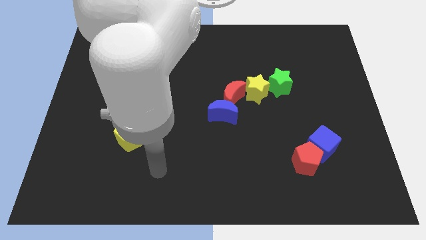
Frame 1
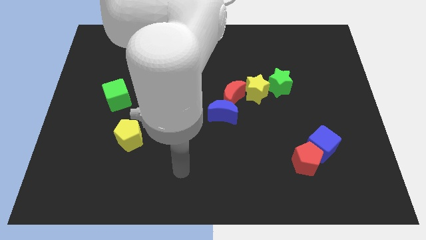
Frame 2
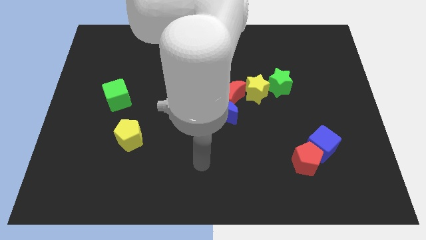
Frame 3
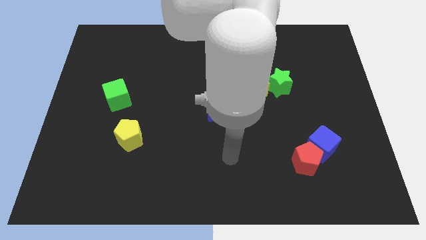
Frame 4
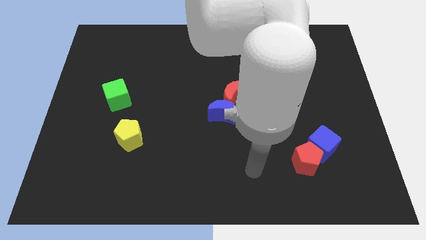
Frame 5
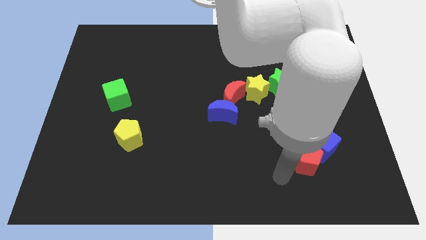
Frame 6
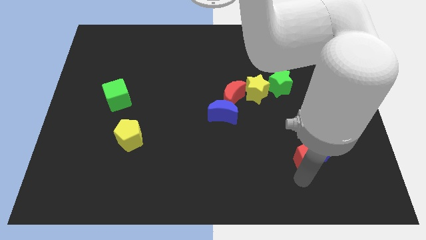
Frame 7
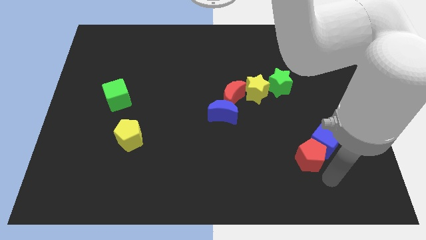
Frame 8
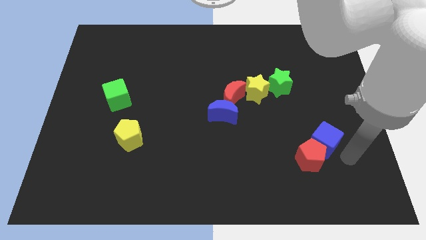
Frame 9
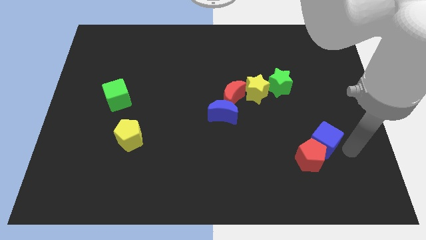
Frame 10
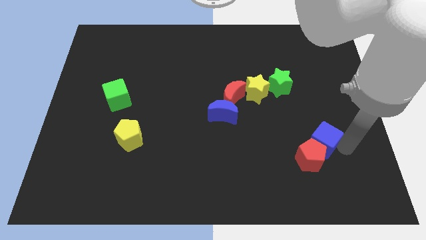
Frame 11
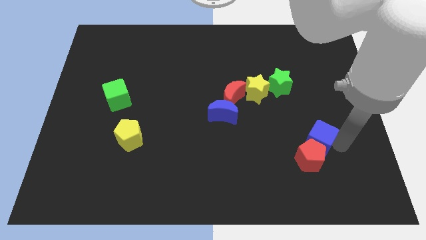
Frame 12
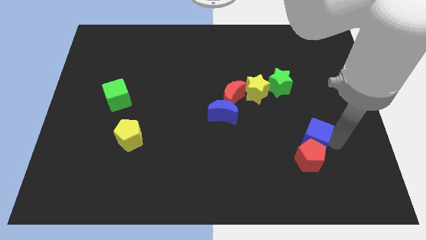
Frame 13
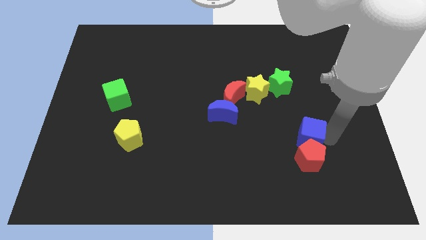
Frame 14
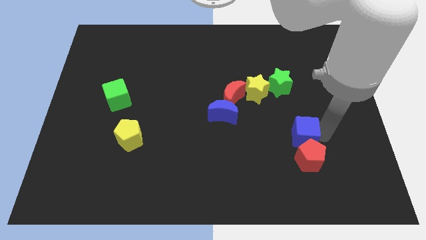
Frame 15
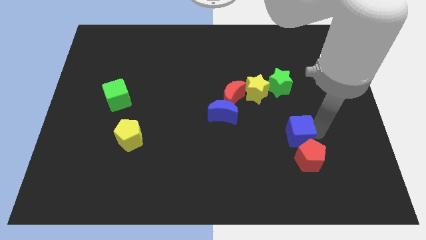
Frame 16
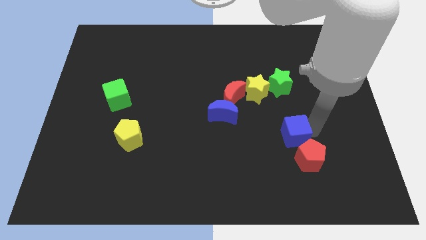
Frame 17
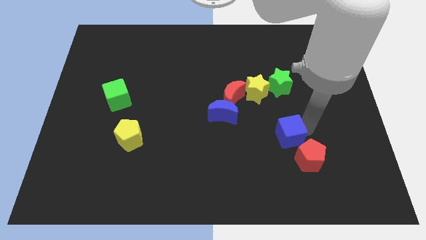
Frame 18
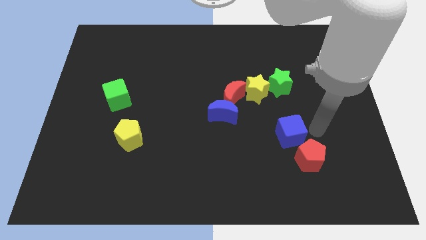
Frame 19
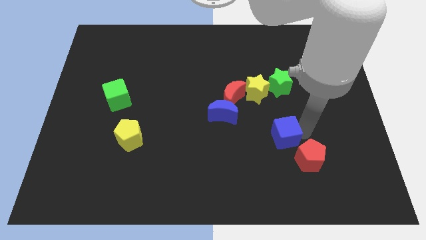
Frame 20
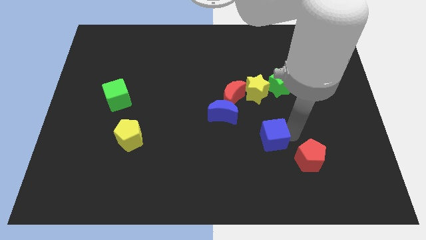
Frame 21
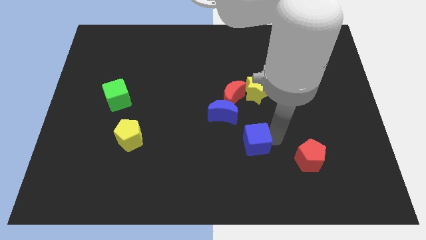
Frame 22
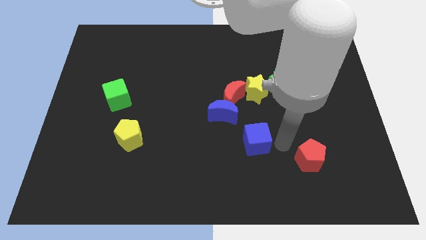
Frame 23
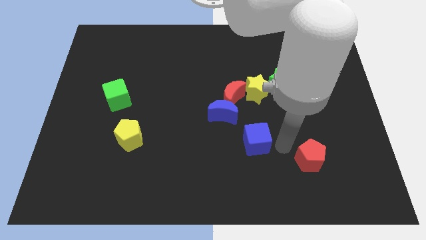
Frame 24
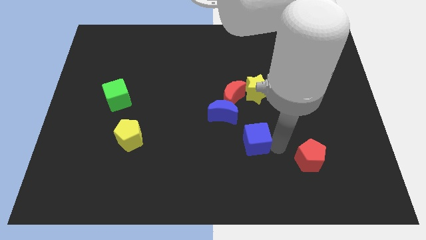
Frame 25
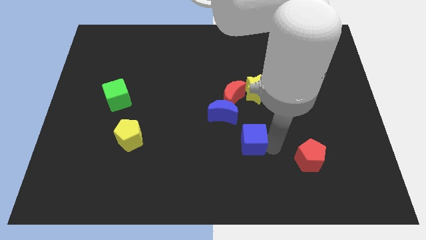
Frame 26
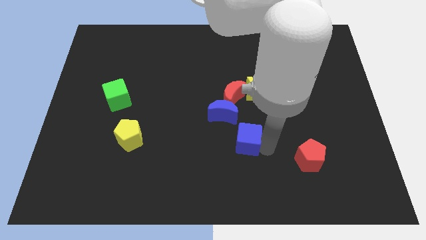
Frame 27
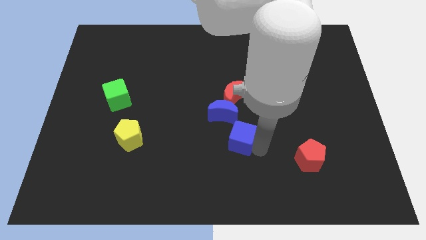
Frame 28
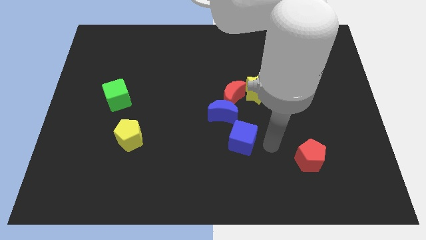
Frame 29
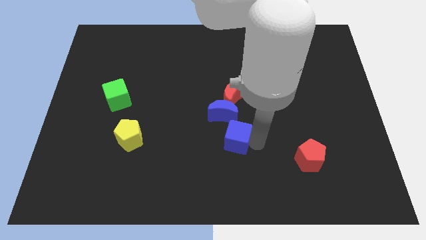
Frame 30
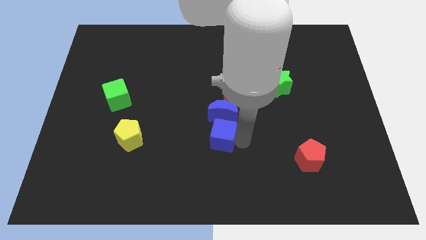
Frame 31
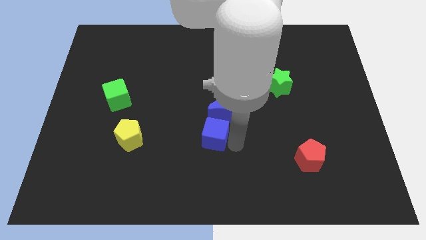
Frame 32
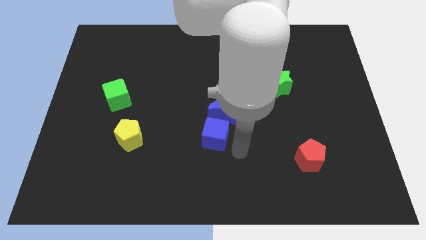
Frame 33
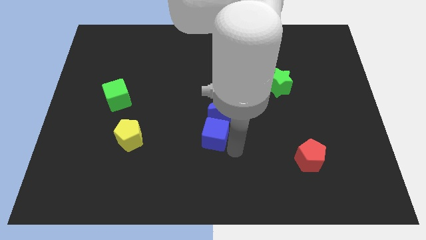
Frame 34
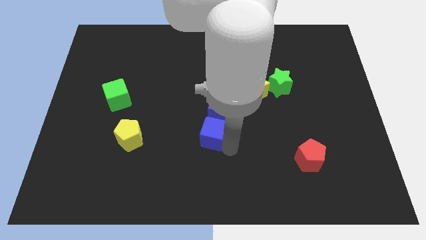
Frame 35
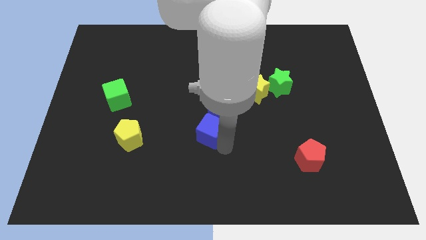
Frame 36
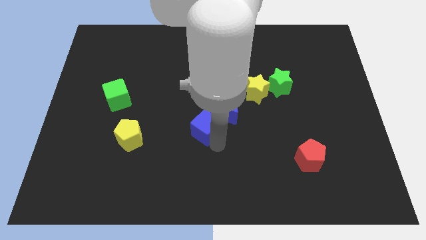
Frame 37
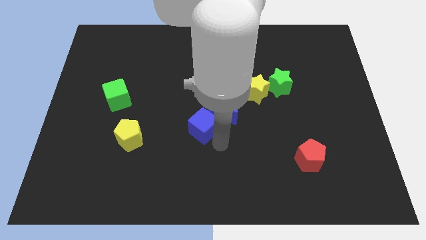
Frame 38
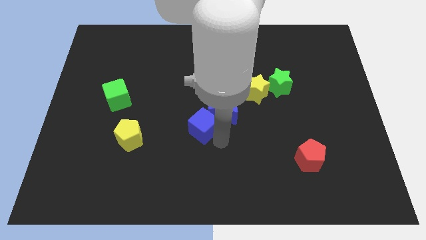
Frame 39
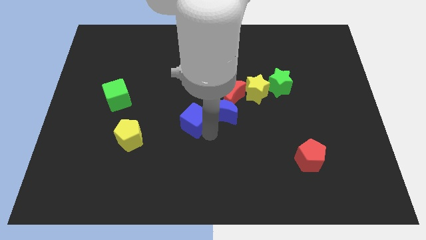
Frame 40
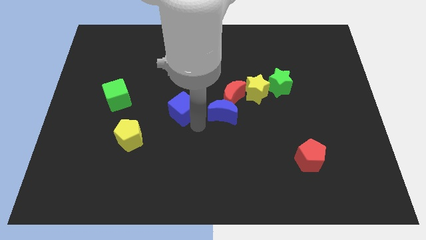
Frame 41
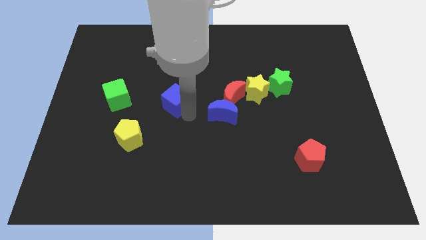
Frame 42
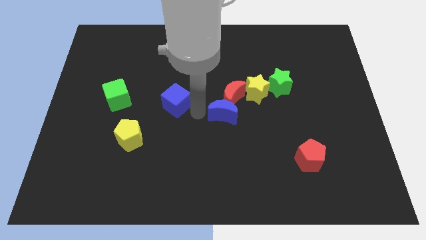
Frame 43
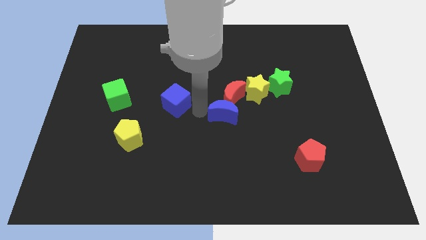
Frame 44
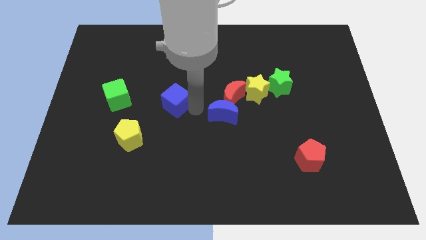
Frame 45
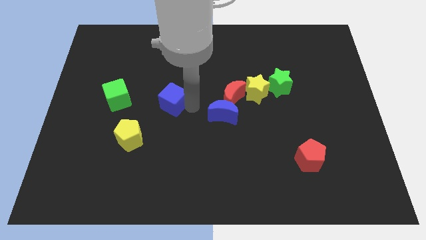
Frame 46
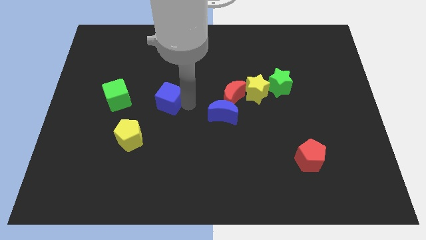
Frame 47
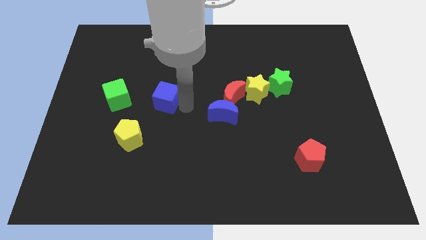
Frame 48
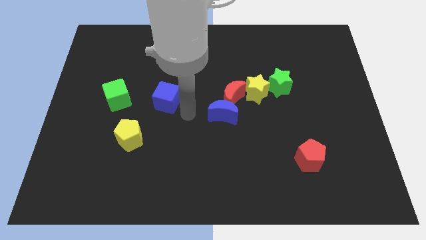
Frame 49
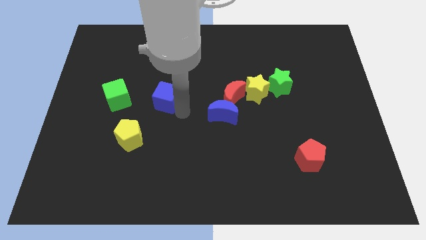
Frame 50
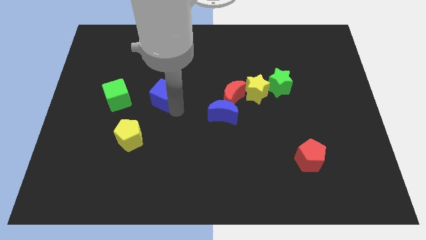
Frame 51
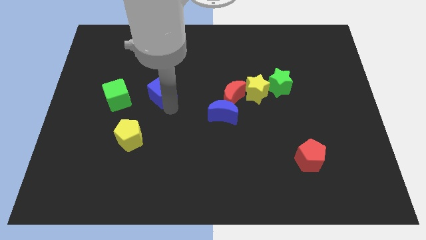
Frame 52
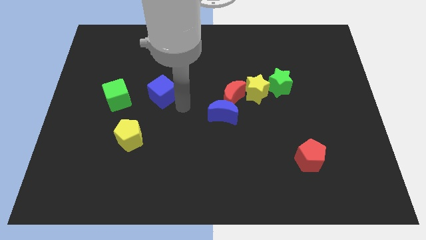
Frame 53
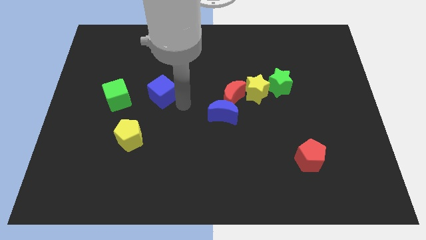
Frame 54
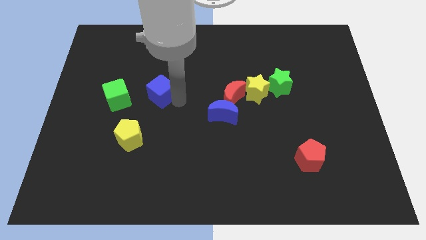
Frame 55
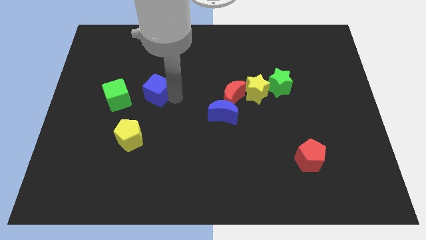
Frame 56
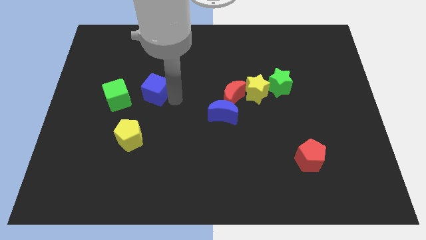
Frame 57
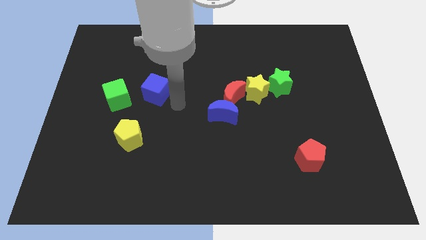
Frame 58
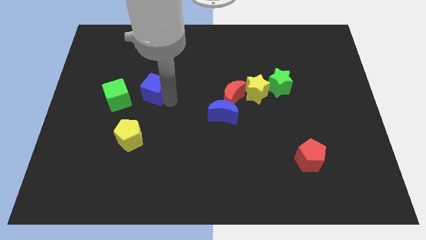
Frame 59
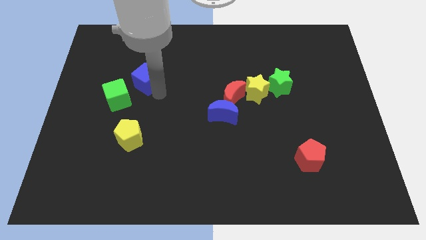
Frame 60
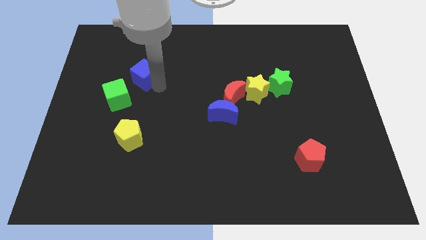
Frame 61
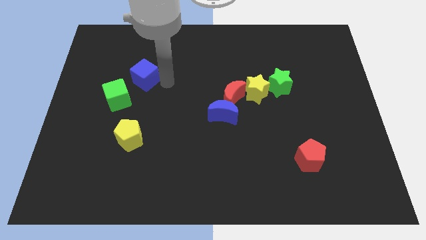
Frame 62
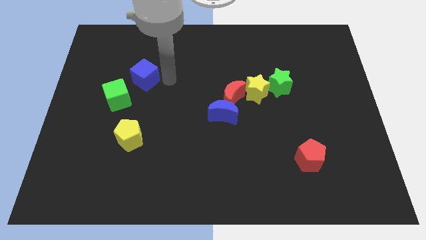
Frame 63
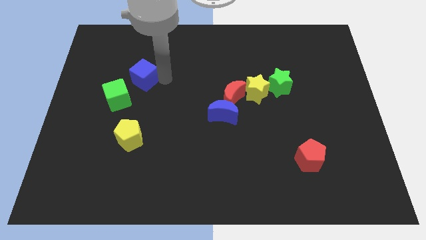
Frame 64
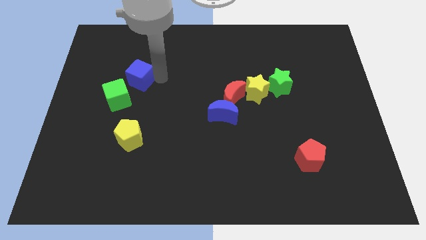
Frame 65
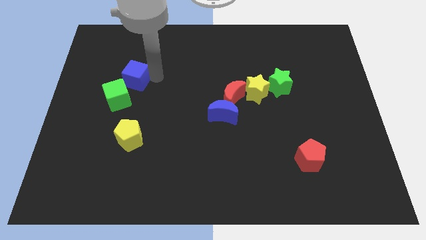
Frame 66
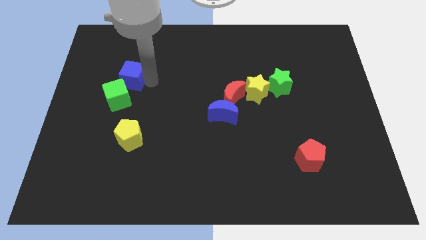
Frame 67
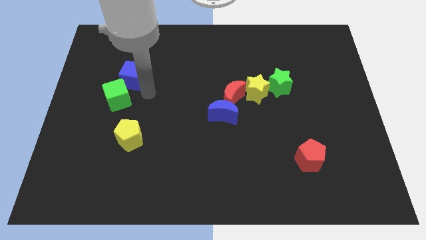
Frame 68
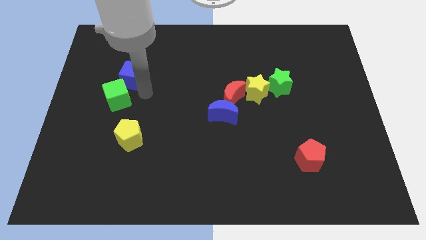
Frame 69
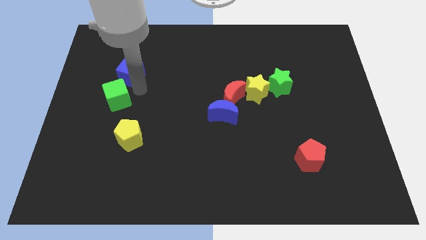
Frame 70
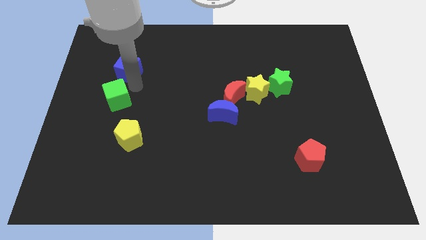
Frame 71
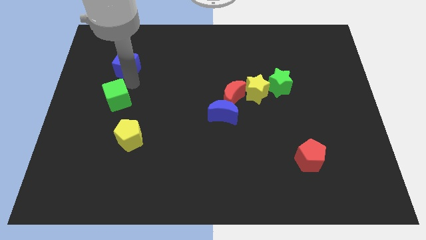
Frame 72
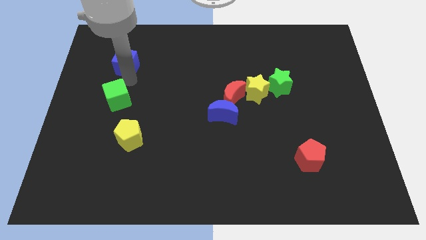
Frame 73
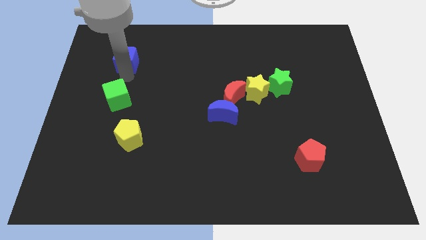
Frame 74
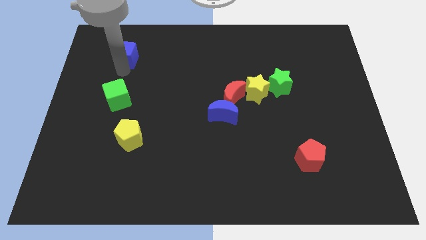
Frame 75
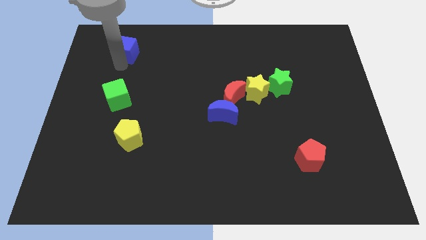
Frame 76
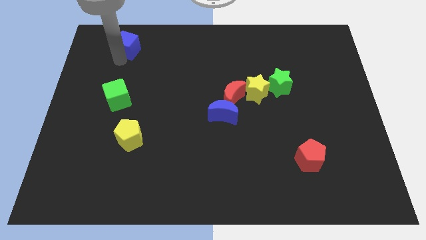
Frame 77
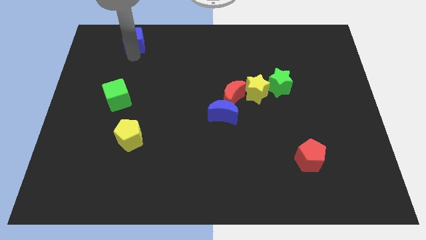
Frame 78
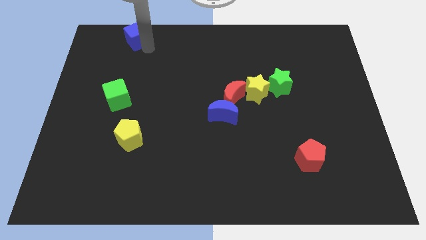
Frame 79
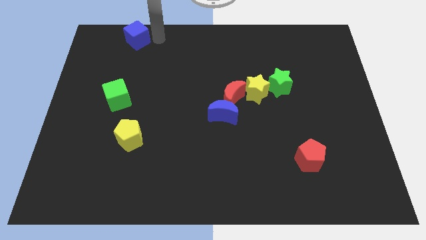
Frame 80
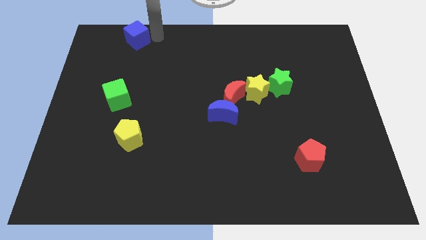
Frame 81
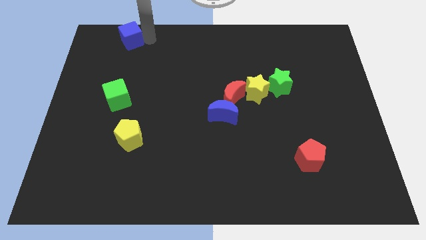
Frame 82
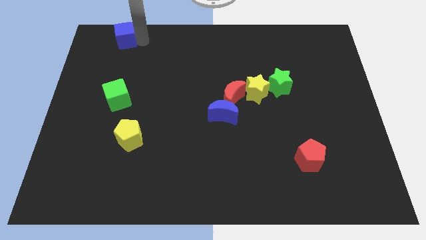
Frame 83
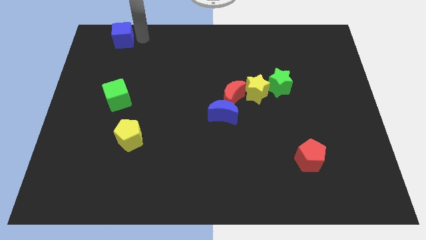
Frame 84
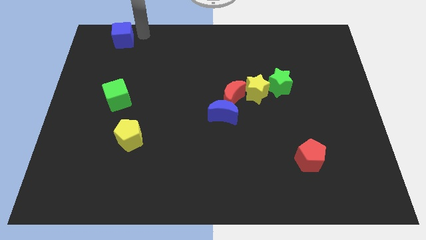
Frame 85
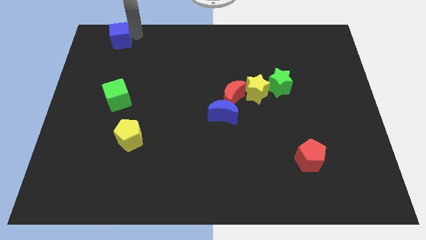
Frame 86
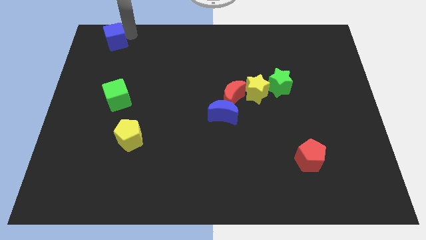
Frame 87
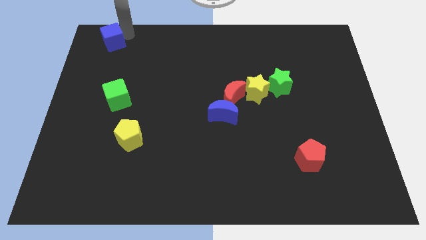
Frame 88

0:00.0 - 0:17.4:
push the blue cube to the top left corner
